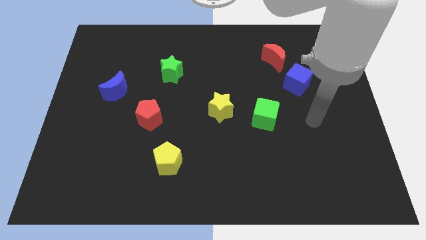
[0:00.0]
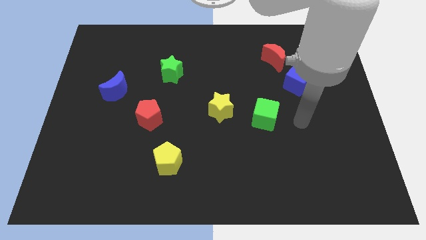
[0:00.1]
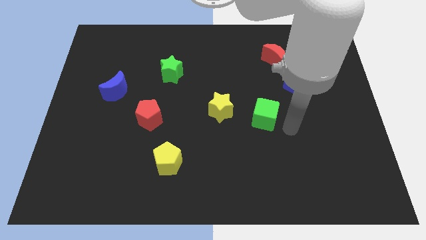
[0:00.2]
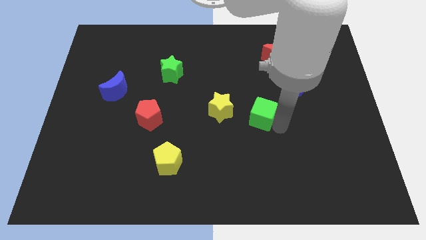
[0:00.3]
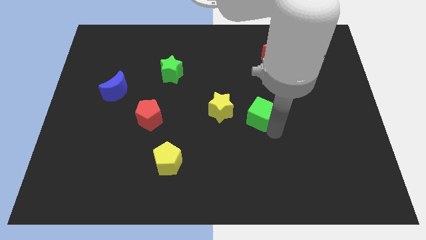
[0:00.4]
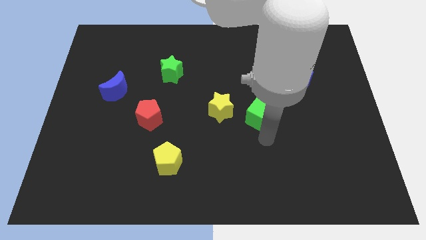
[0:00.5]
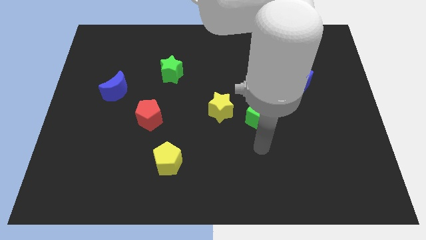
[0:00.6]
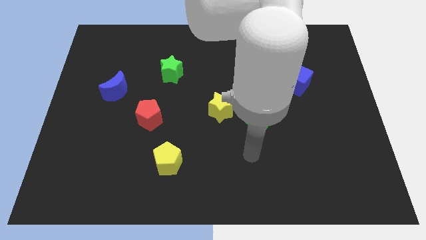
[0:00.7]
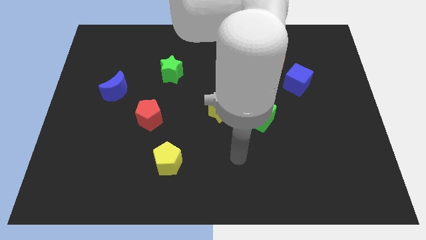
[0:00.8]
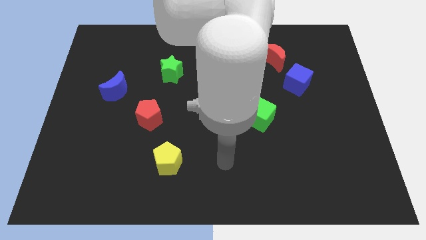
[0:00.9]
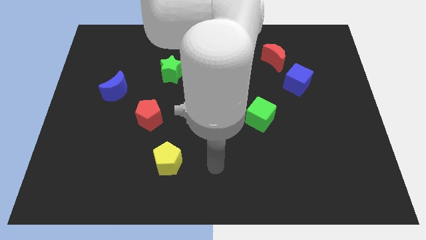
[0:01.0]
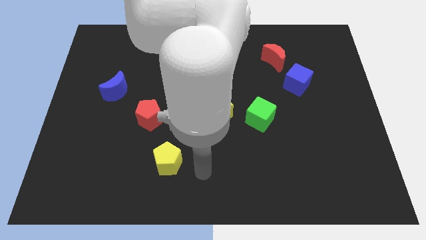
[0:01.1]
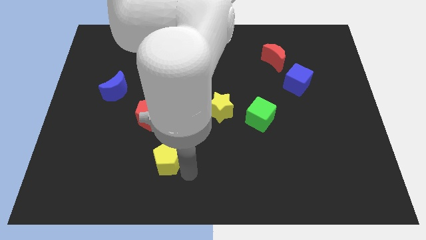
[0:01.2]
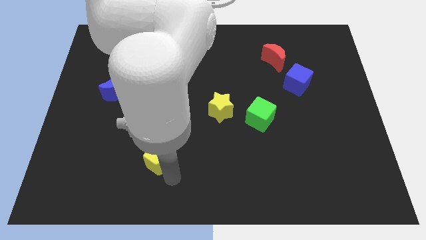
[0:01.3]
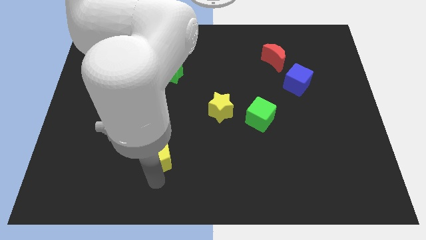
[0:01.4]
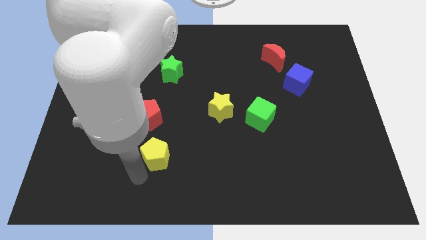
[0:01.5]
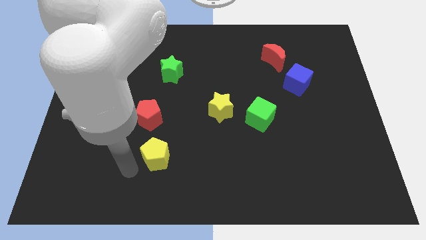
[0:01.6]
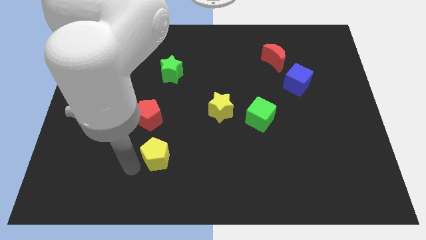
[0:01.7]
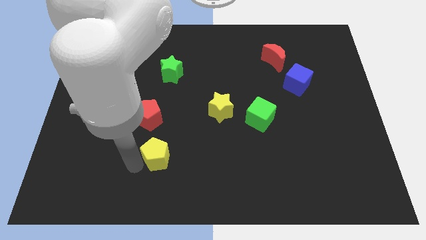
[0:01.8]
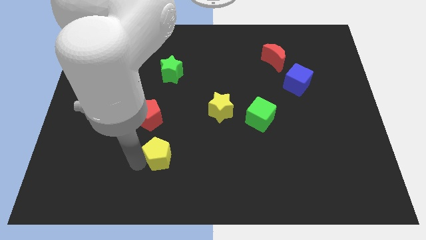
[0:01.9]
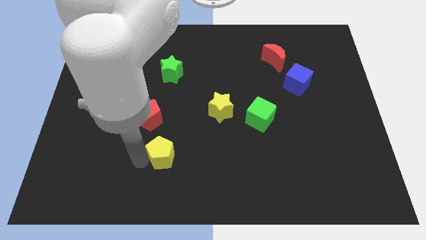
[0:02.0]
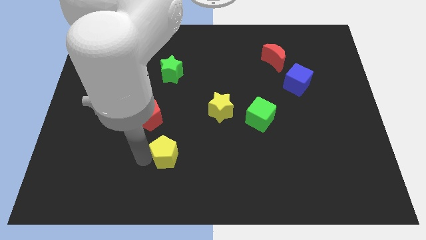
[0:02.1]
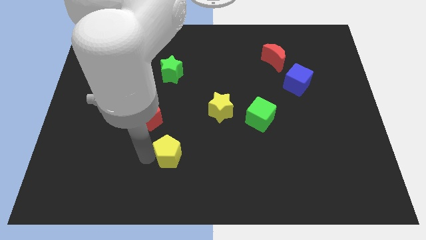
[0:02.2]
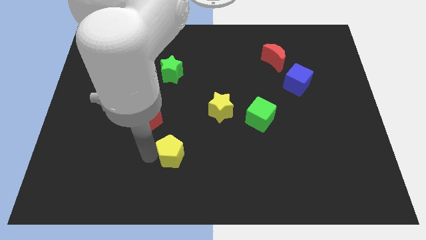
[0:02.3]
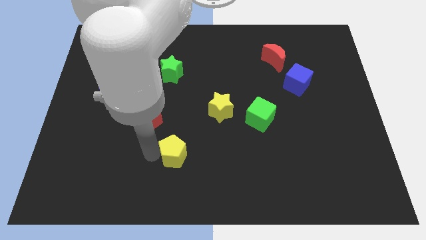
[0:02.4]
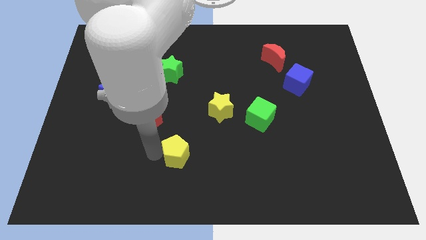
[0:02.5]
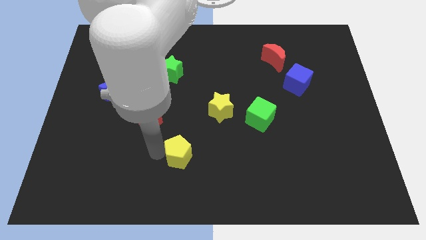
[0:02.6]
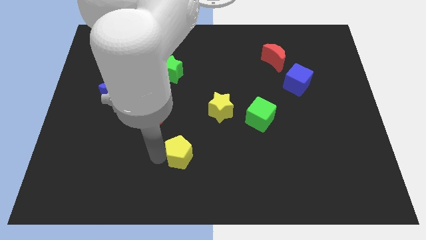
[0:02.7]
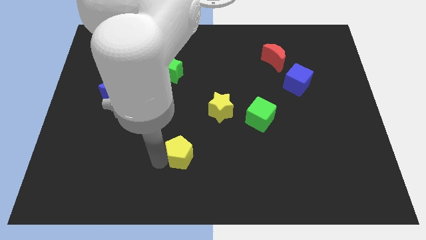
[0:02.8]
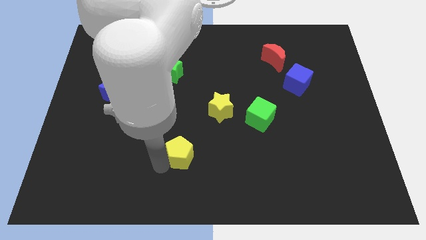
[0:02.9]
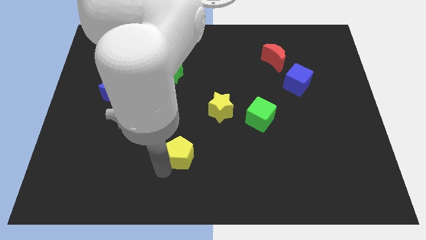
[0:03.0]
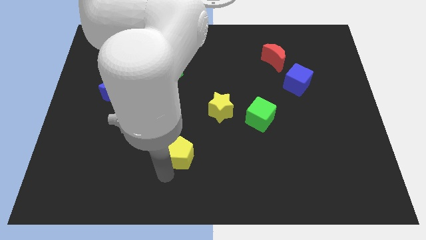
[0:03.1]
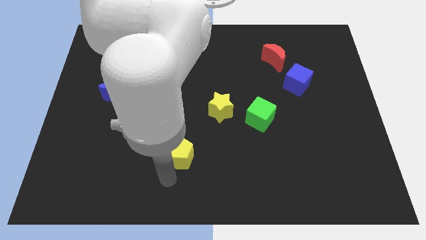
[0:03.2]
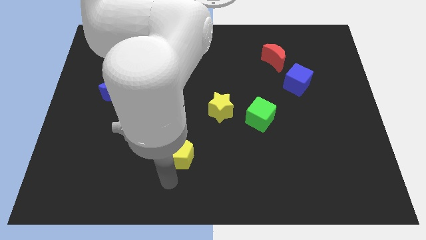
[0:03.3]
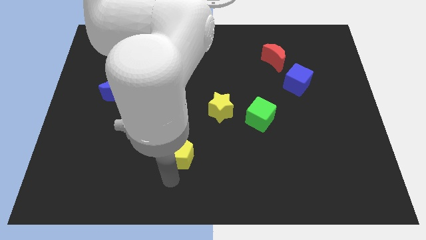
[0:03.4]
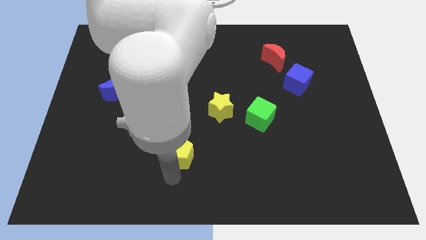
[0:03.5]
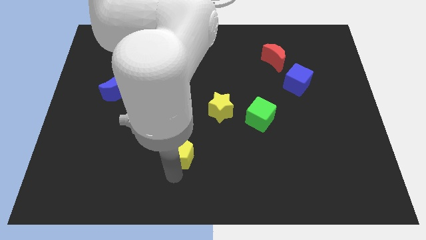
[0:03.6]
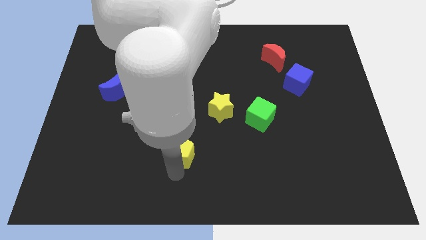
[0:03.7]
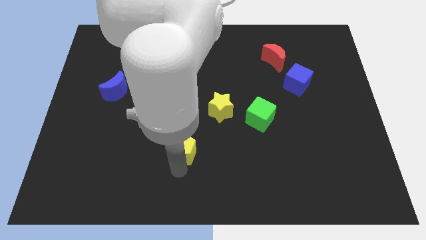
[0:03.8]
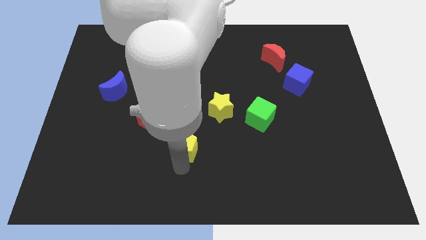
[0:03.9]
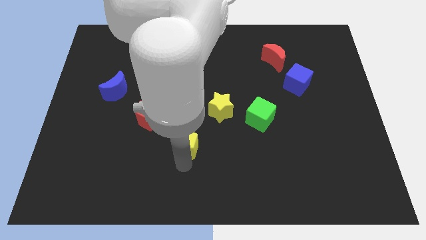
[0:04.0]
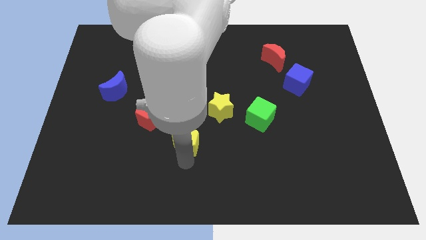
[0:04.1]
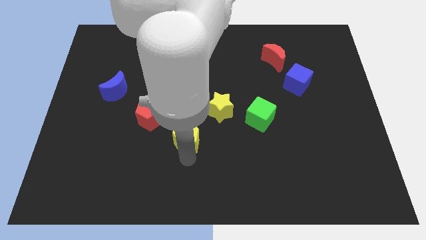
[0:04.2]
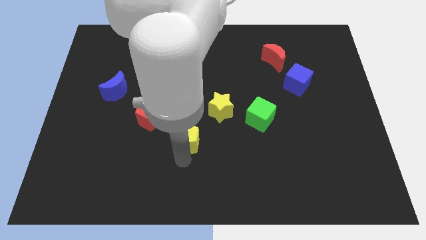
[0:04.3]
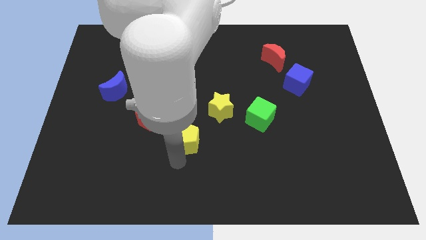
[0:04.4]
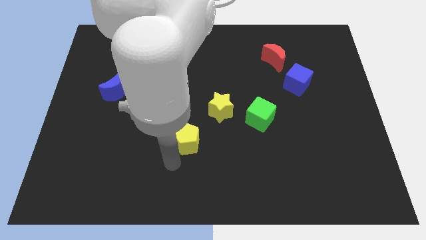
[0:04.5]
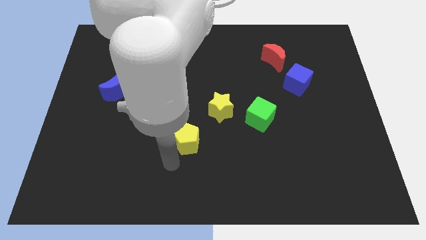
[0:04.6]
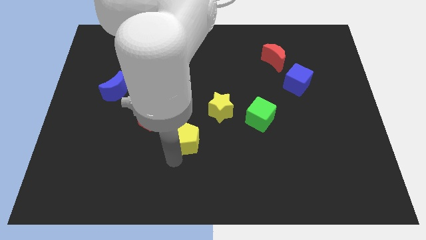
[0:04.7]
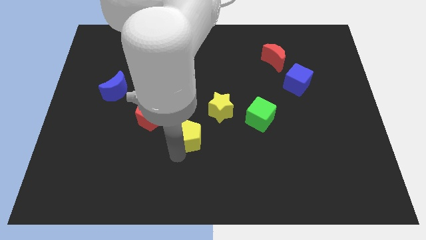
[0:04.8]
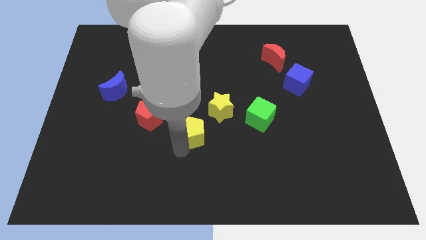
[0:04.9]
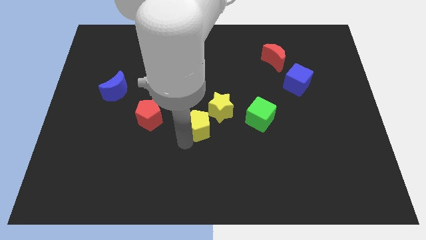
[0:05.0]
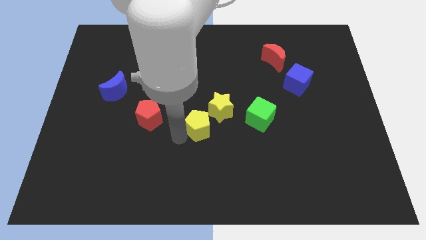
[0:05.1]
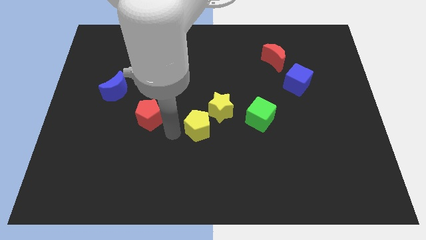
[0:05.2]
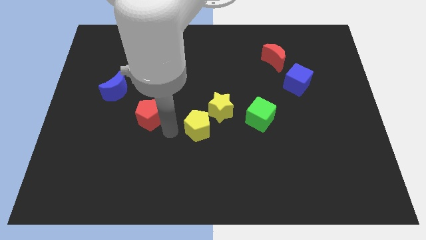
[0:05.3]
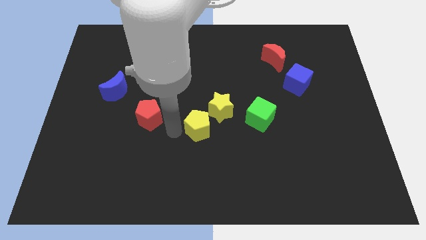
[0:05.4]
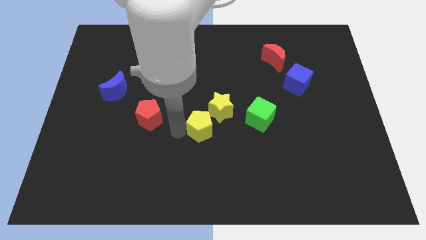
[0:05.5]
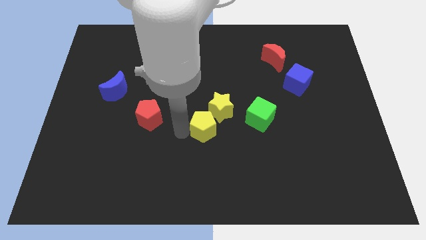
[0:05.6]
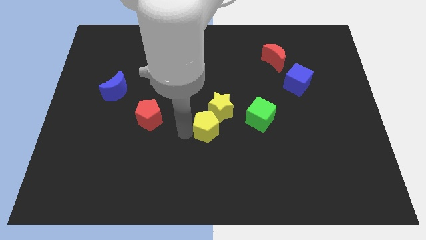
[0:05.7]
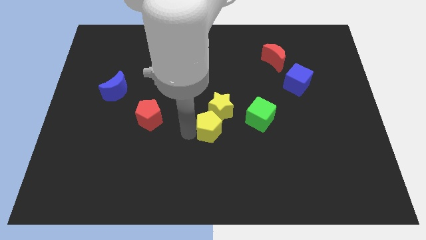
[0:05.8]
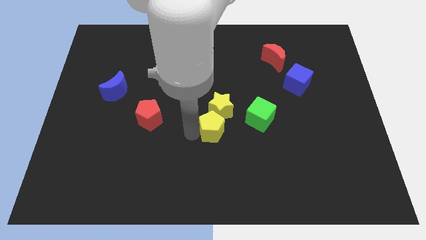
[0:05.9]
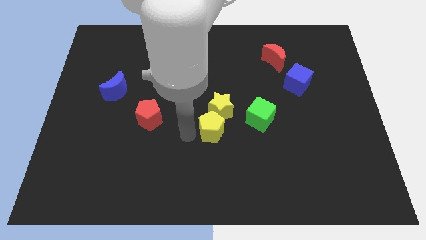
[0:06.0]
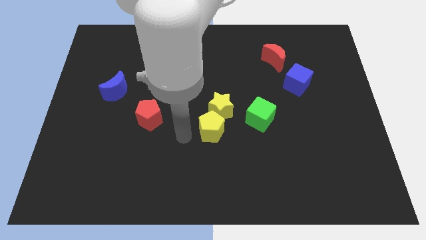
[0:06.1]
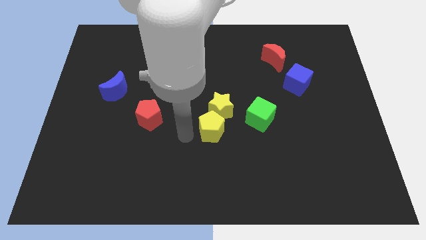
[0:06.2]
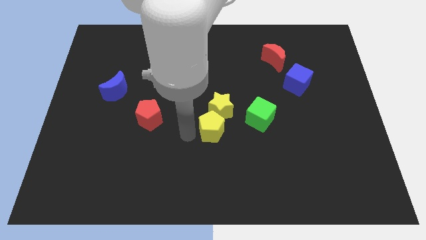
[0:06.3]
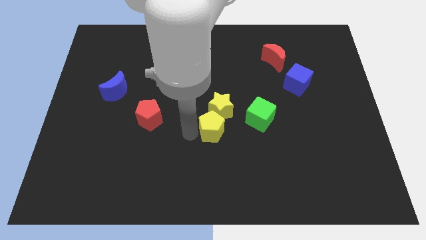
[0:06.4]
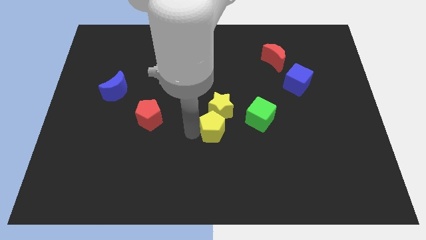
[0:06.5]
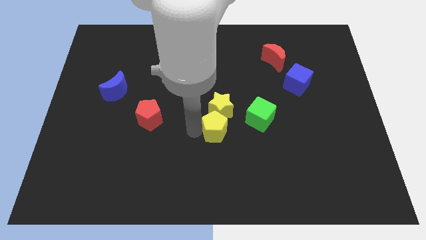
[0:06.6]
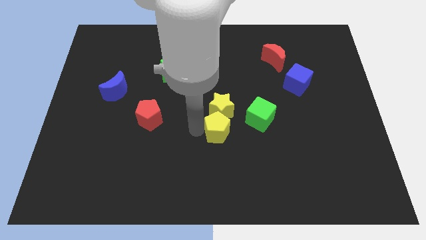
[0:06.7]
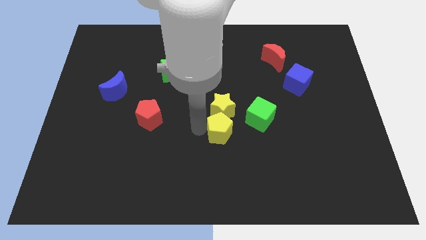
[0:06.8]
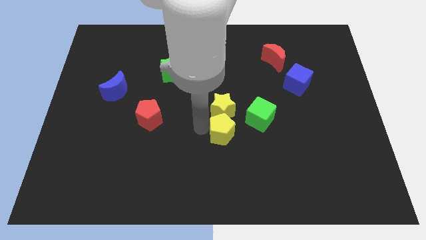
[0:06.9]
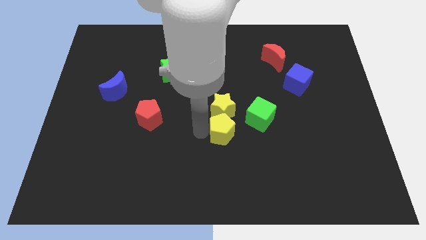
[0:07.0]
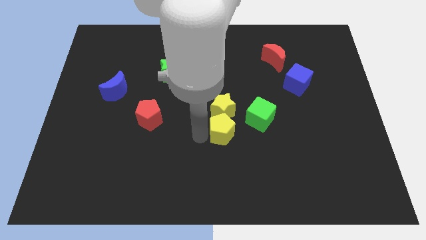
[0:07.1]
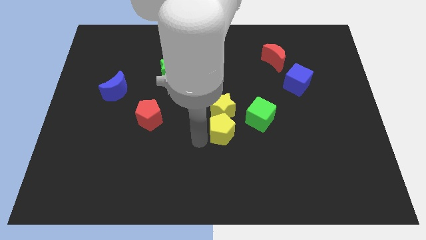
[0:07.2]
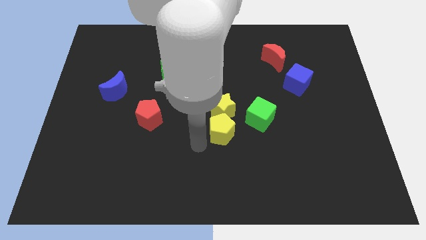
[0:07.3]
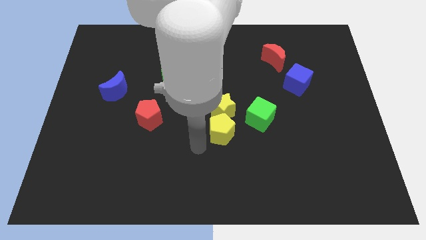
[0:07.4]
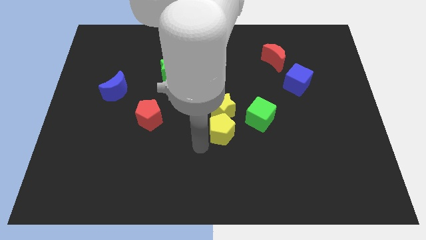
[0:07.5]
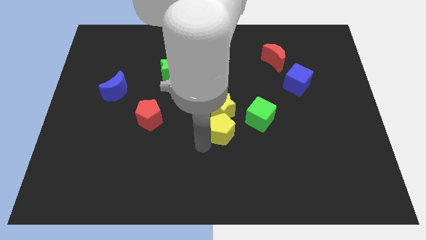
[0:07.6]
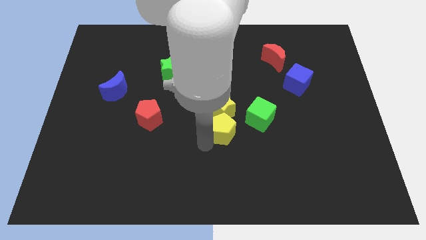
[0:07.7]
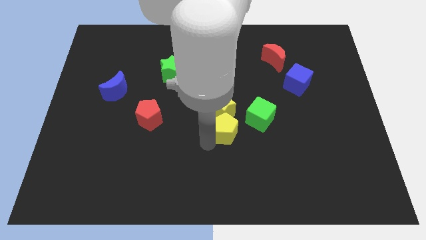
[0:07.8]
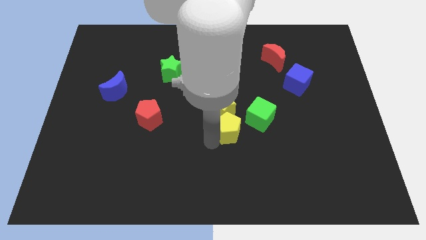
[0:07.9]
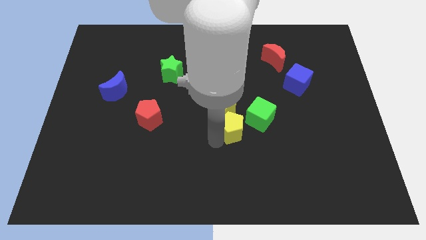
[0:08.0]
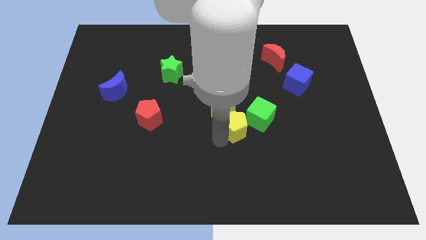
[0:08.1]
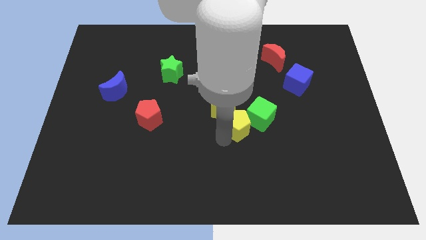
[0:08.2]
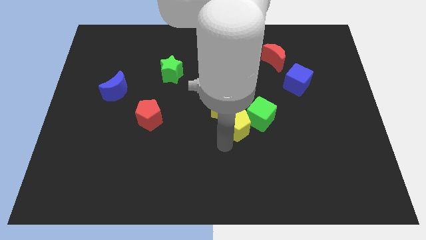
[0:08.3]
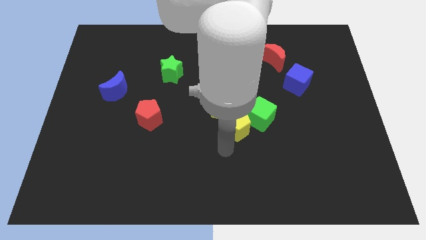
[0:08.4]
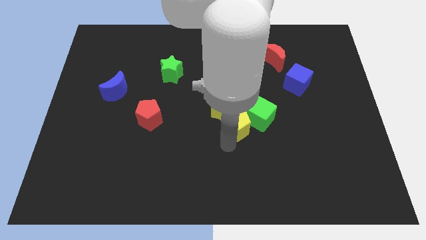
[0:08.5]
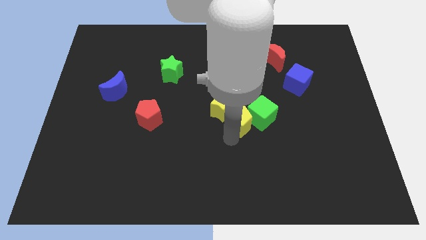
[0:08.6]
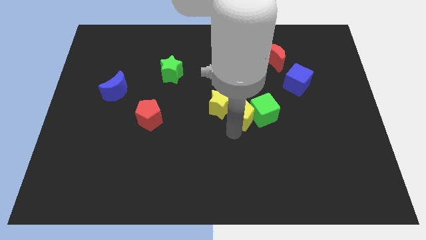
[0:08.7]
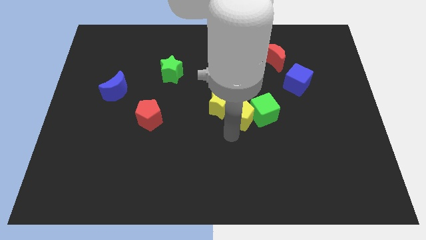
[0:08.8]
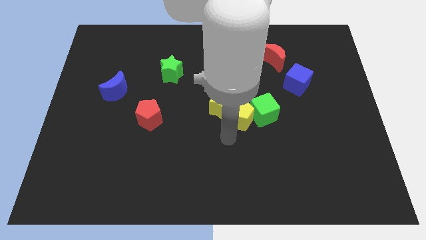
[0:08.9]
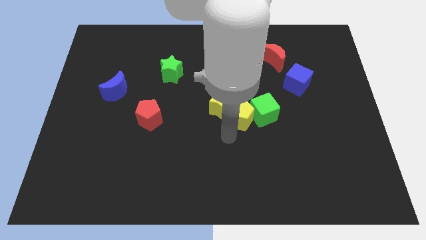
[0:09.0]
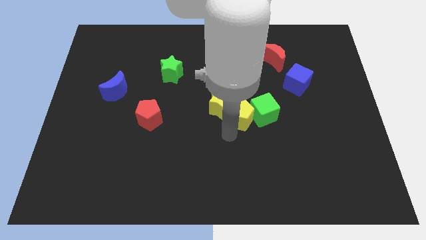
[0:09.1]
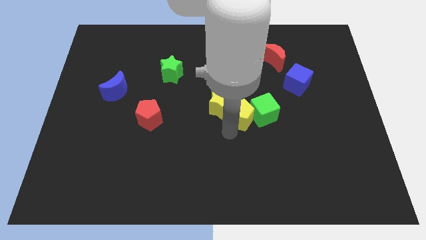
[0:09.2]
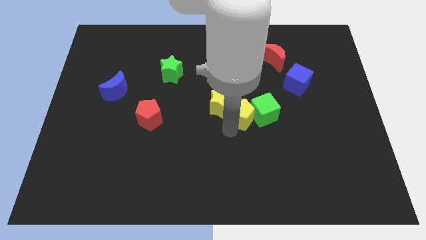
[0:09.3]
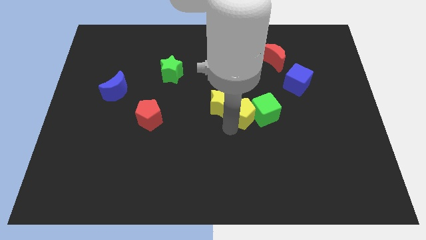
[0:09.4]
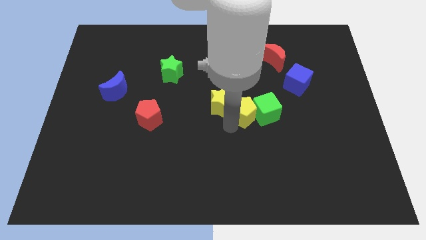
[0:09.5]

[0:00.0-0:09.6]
slide the yellow pentagon up and to the right diagonally
